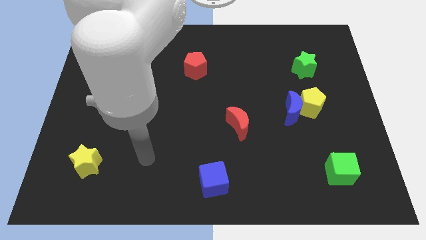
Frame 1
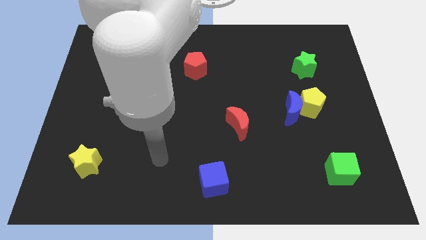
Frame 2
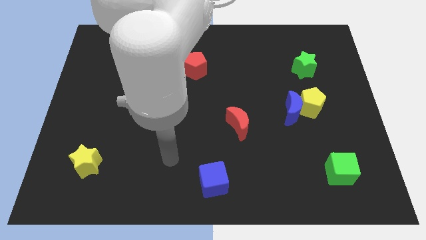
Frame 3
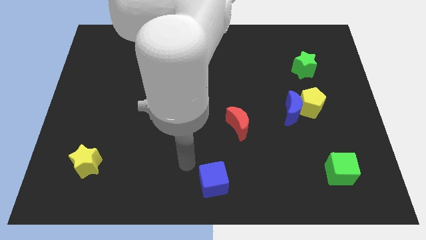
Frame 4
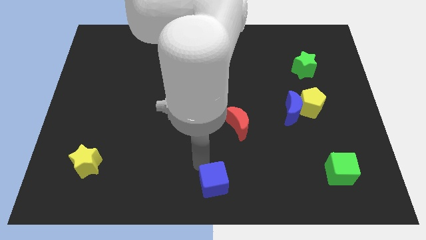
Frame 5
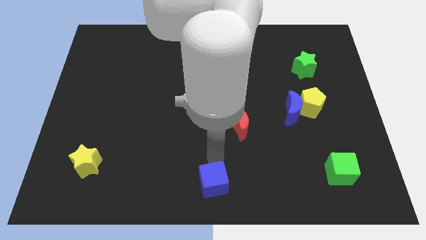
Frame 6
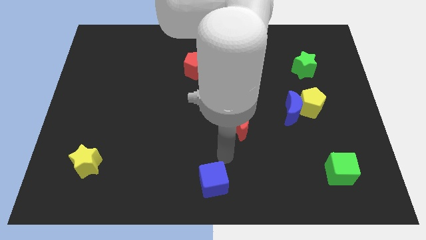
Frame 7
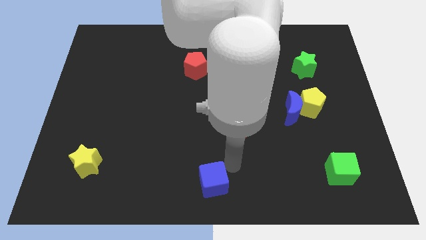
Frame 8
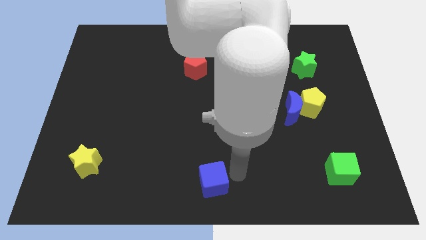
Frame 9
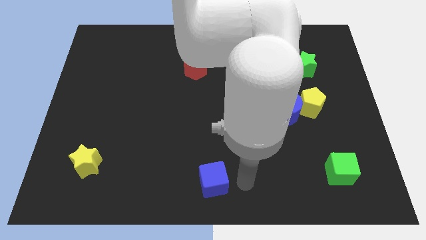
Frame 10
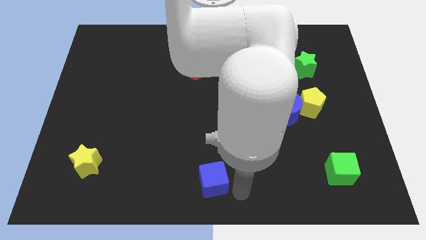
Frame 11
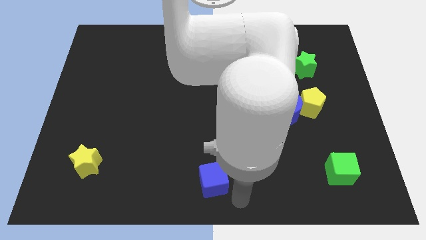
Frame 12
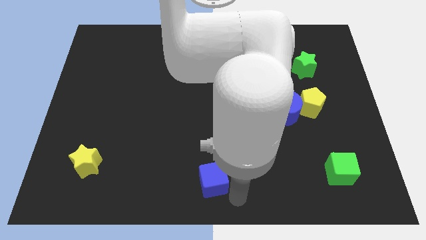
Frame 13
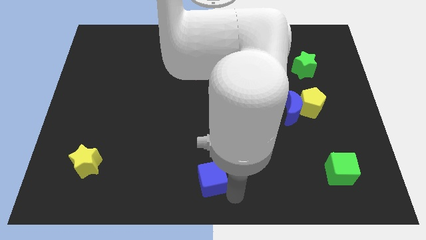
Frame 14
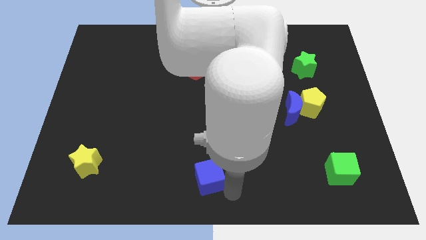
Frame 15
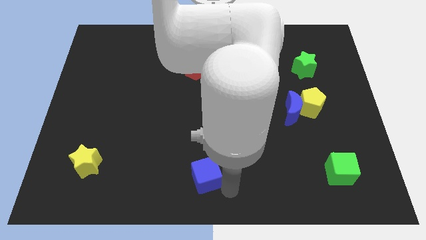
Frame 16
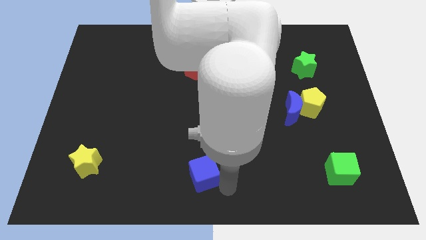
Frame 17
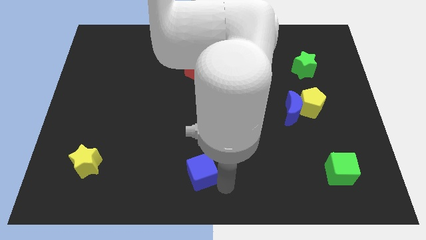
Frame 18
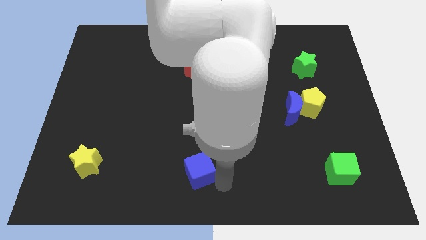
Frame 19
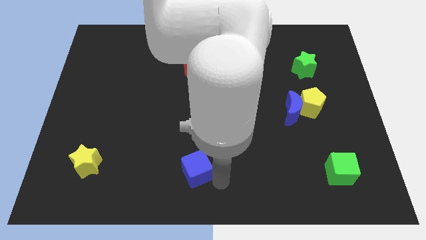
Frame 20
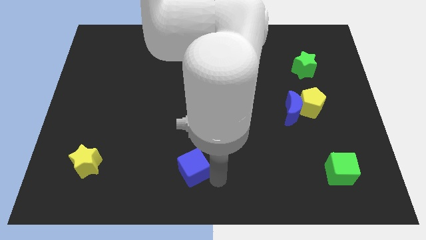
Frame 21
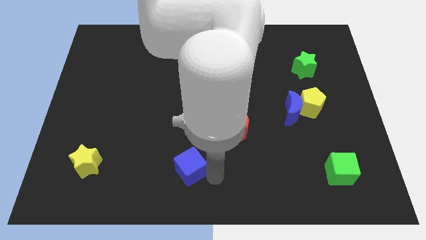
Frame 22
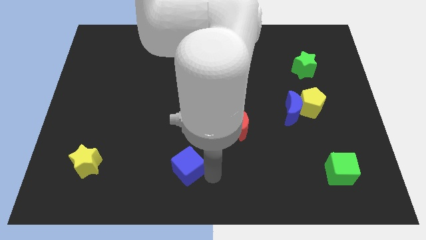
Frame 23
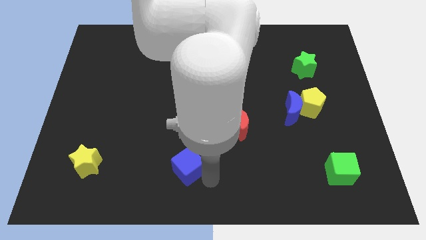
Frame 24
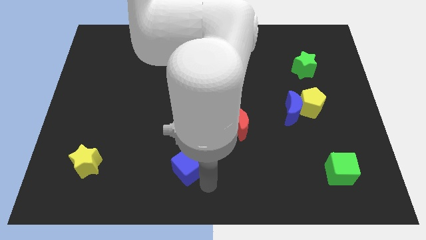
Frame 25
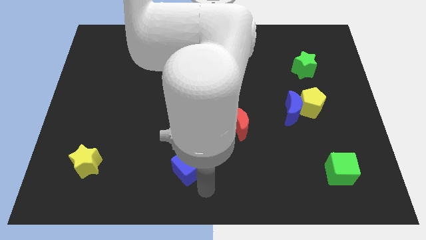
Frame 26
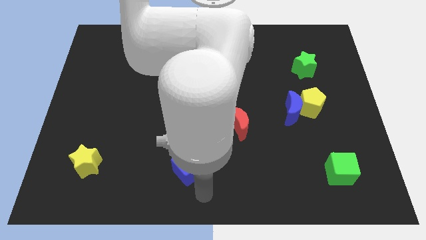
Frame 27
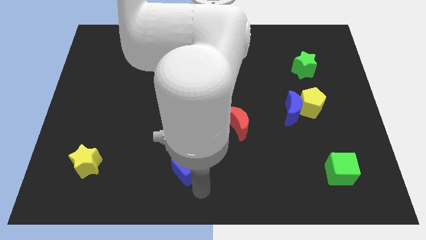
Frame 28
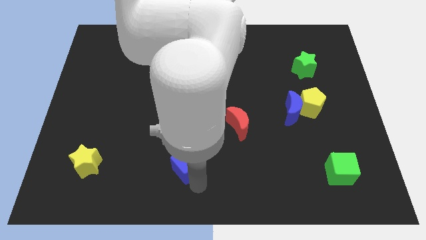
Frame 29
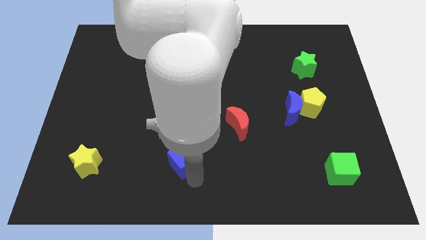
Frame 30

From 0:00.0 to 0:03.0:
move the blue cube up and to the left slightly

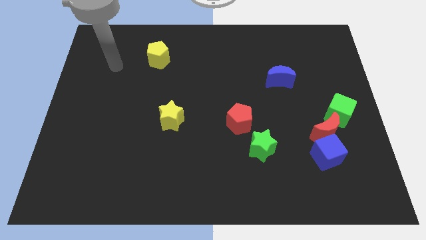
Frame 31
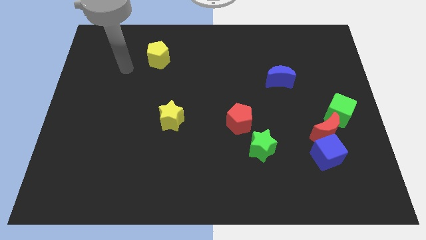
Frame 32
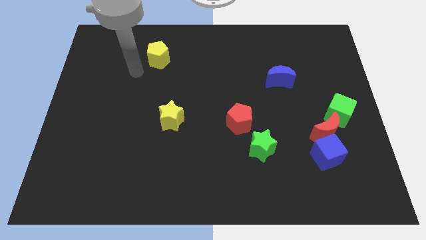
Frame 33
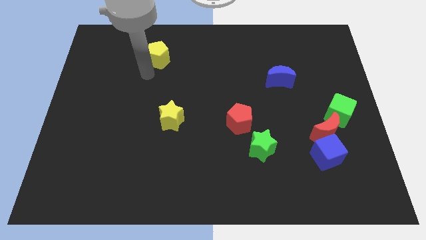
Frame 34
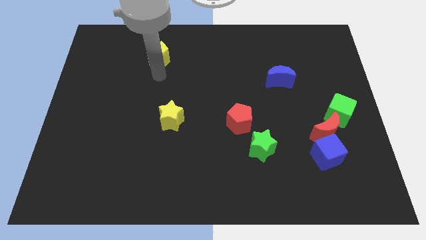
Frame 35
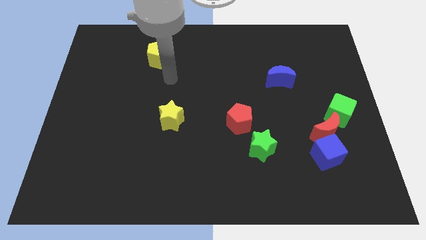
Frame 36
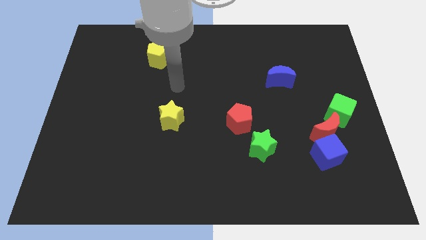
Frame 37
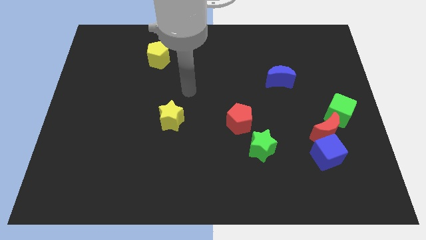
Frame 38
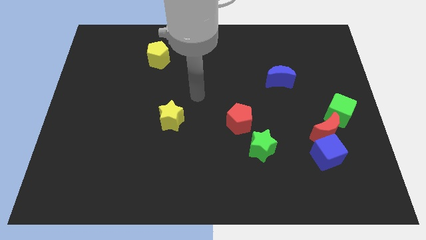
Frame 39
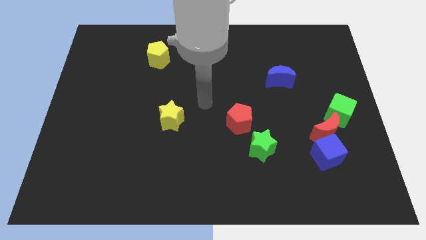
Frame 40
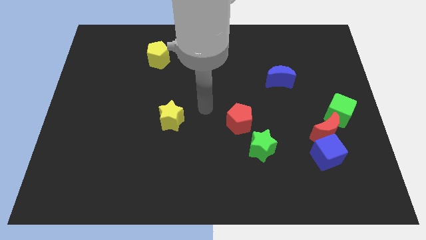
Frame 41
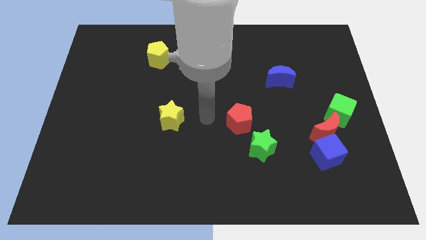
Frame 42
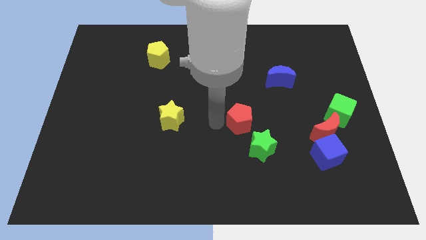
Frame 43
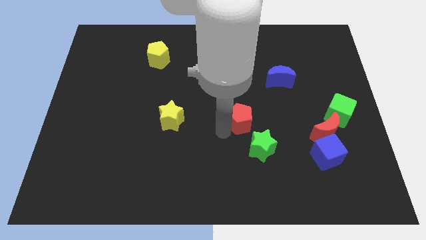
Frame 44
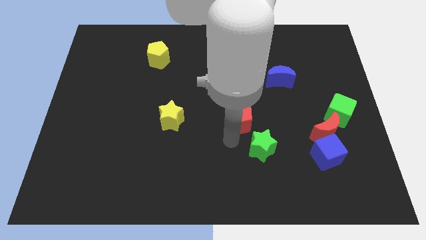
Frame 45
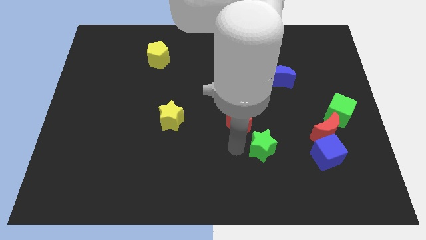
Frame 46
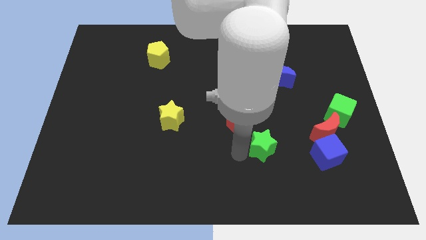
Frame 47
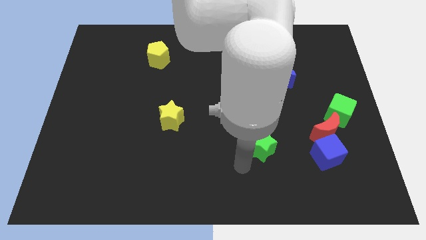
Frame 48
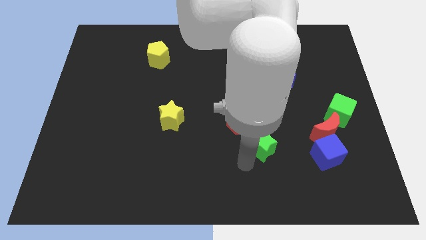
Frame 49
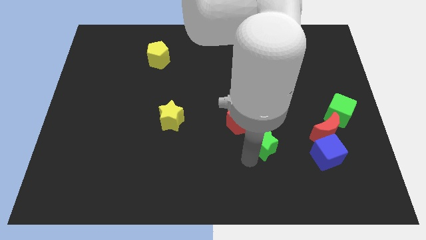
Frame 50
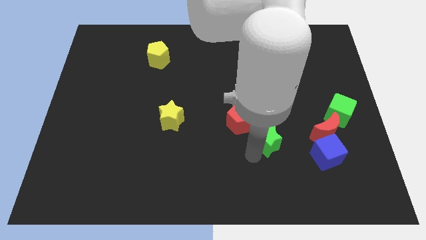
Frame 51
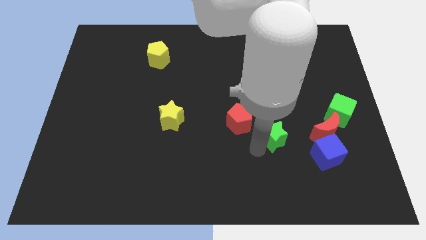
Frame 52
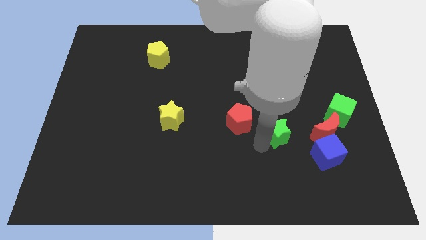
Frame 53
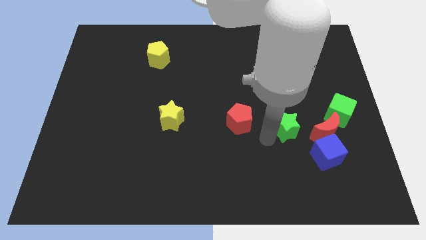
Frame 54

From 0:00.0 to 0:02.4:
slightly push the green star up and then to the right

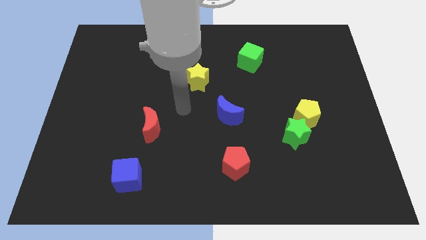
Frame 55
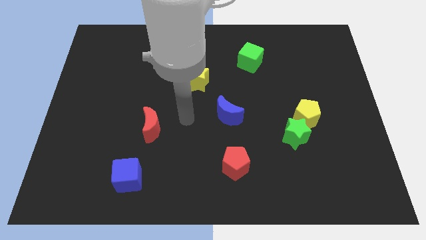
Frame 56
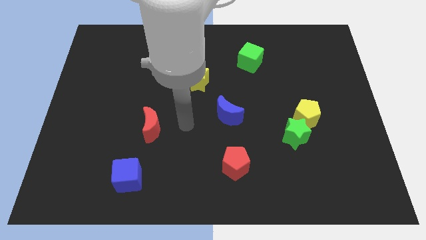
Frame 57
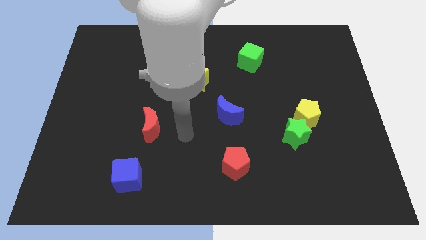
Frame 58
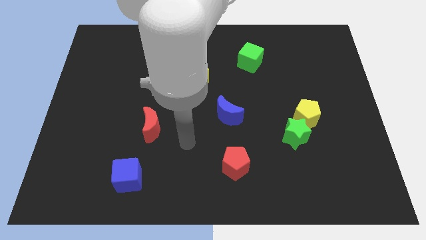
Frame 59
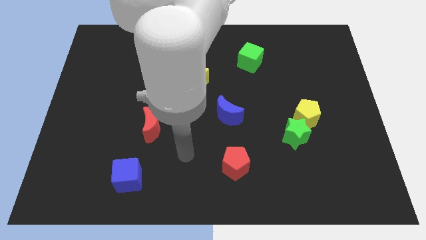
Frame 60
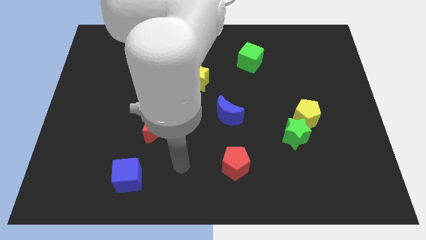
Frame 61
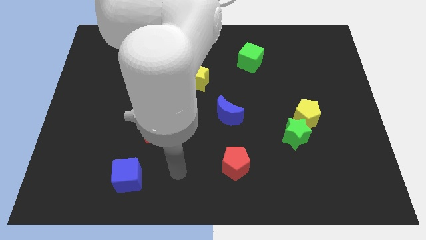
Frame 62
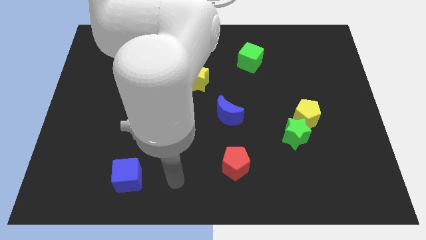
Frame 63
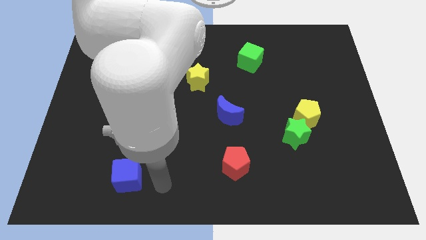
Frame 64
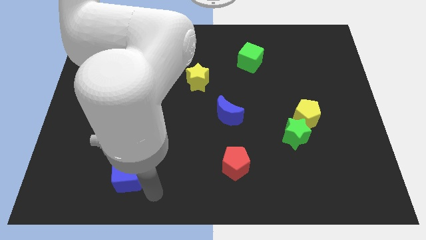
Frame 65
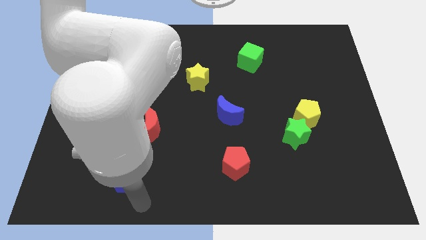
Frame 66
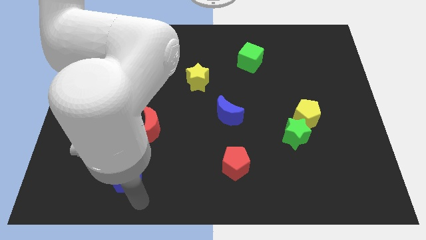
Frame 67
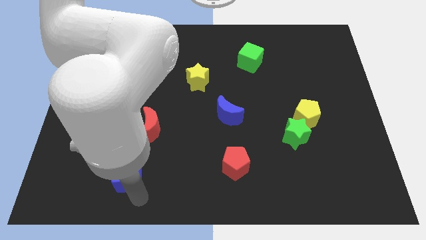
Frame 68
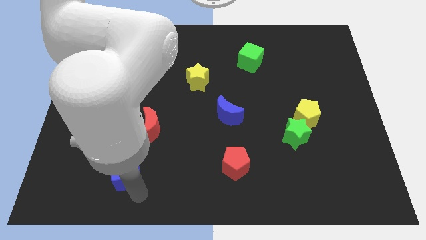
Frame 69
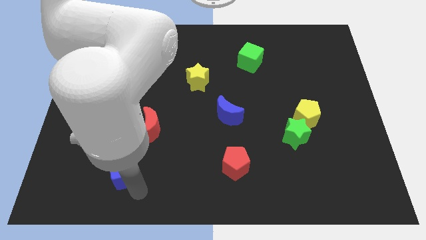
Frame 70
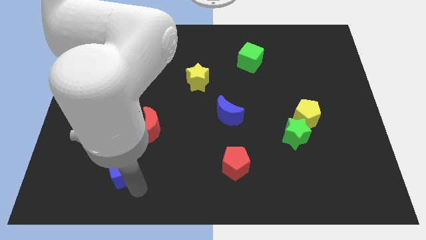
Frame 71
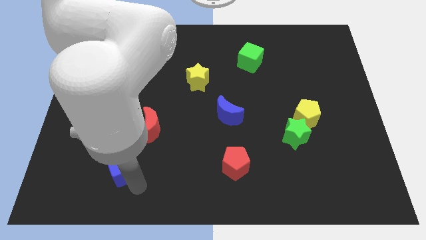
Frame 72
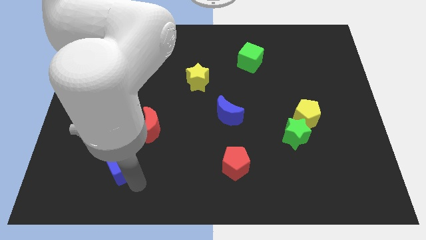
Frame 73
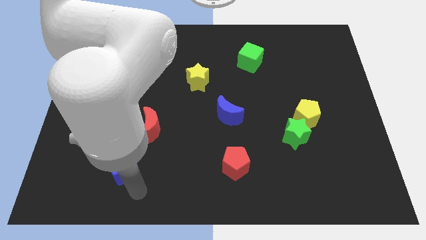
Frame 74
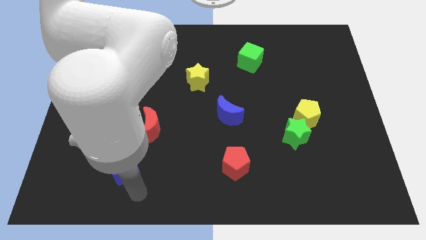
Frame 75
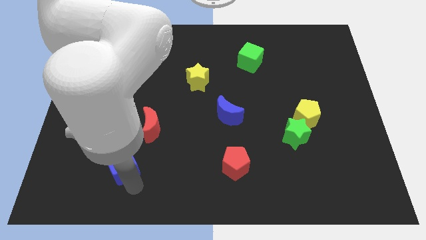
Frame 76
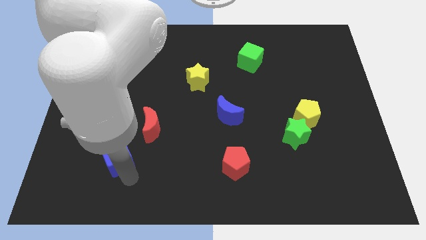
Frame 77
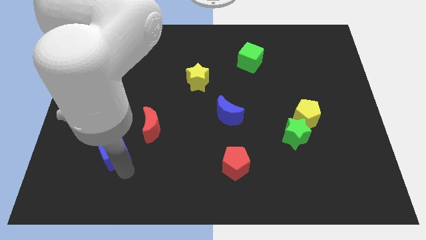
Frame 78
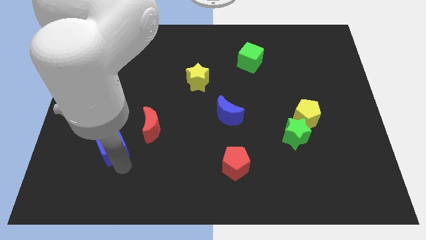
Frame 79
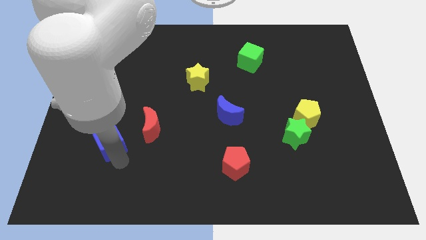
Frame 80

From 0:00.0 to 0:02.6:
push the blue cube upwards slightly
